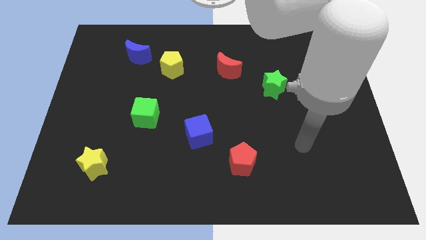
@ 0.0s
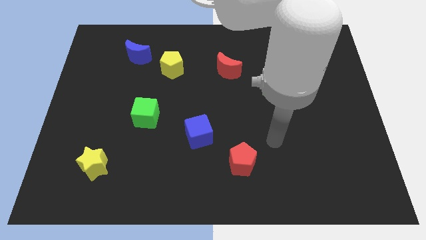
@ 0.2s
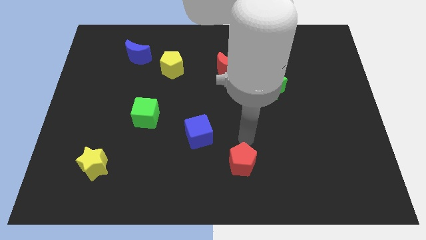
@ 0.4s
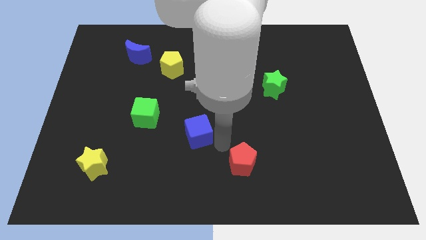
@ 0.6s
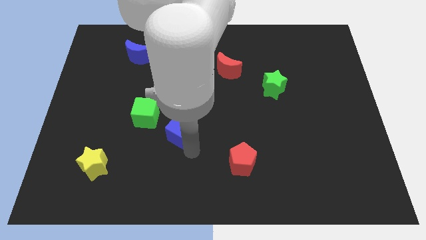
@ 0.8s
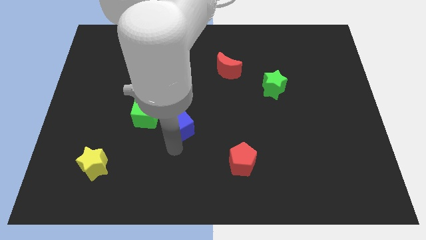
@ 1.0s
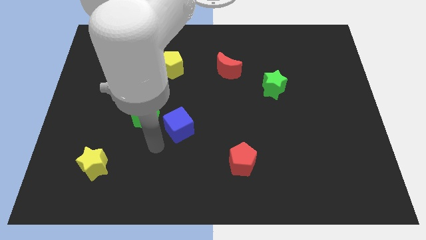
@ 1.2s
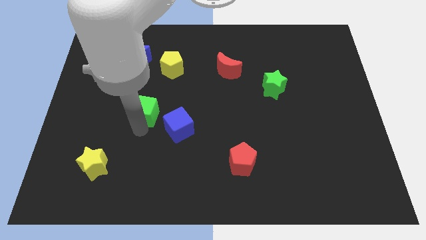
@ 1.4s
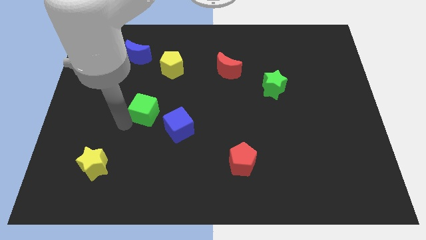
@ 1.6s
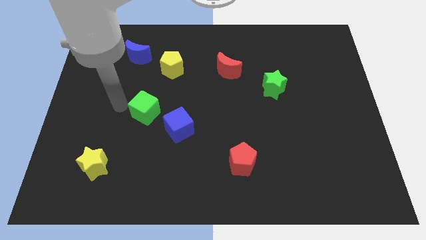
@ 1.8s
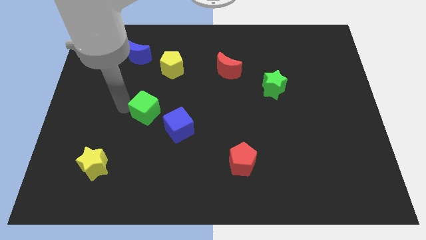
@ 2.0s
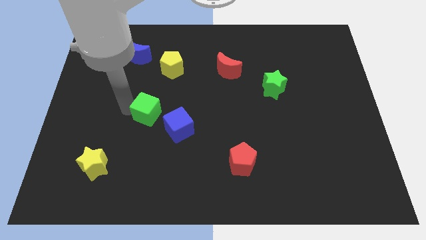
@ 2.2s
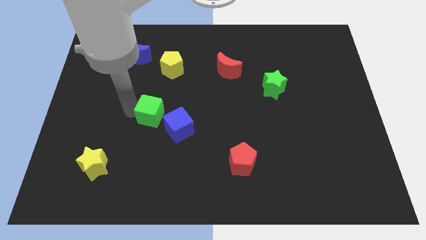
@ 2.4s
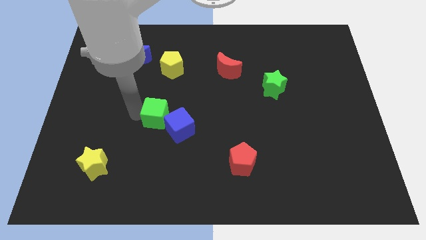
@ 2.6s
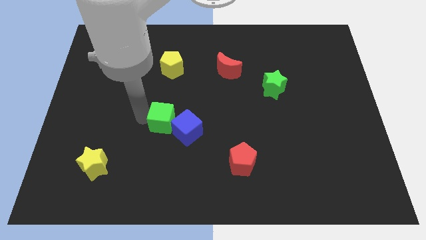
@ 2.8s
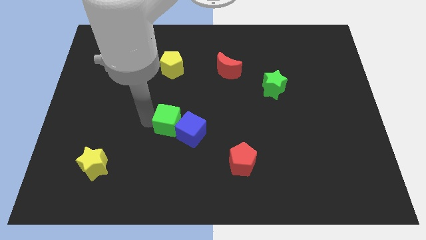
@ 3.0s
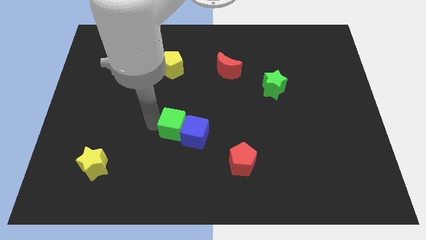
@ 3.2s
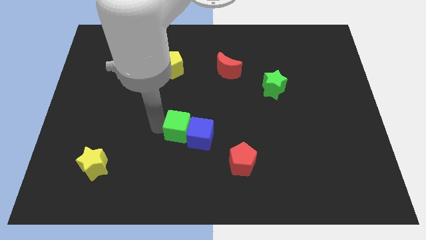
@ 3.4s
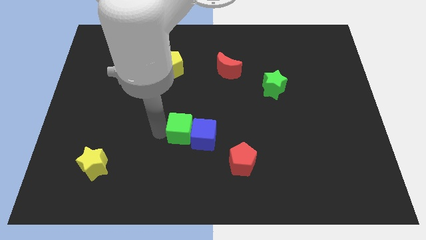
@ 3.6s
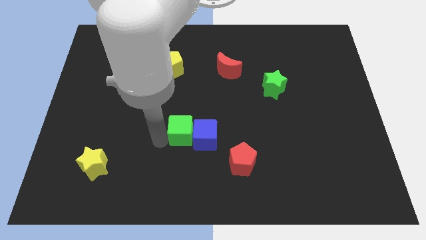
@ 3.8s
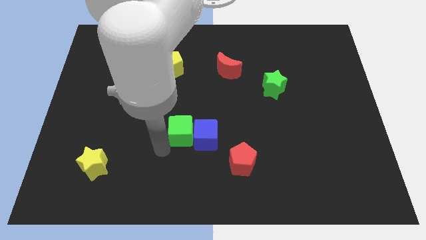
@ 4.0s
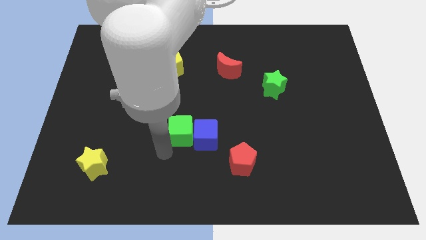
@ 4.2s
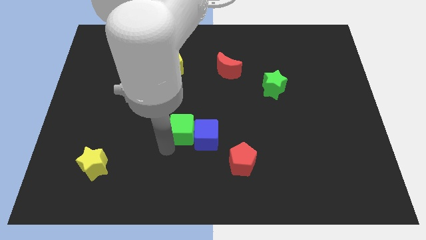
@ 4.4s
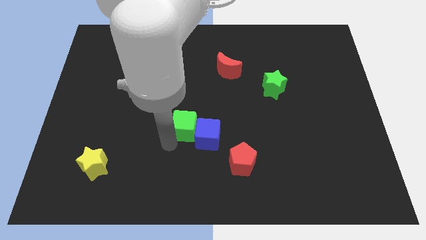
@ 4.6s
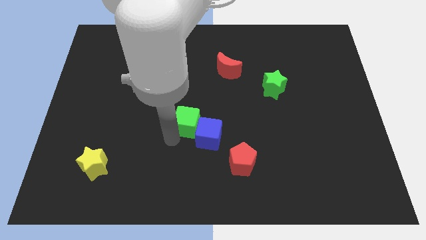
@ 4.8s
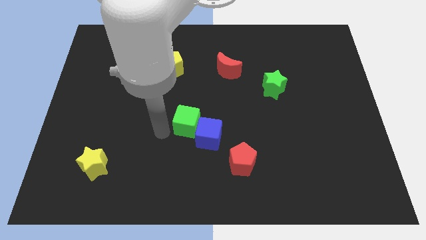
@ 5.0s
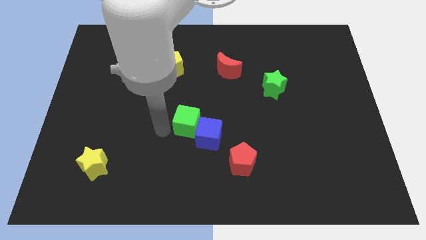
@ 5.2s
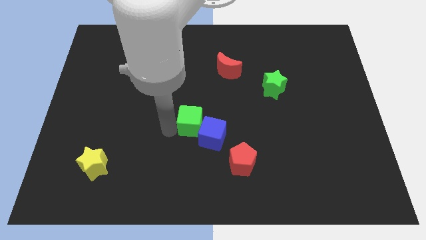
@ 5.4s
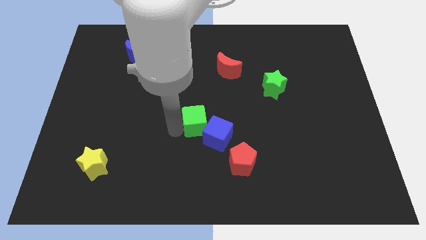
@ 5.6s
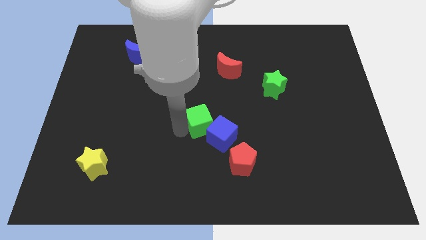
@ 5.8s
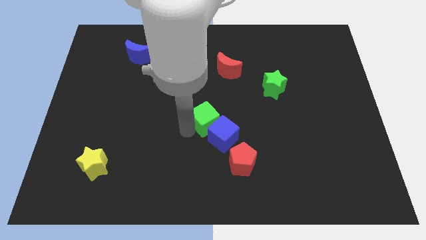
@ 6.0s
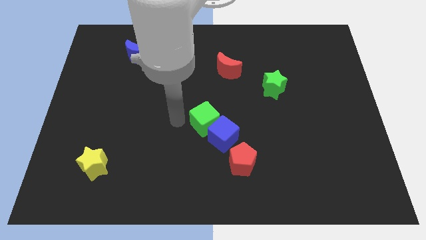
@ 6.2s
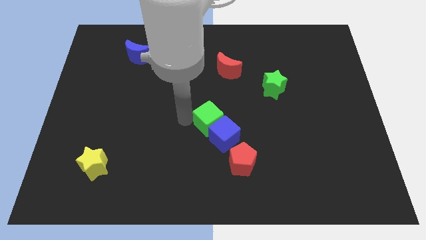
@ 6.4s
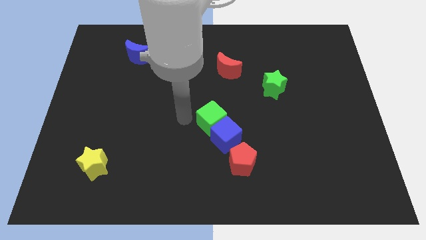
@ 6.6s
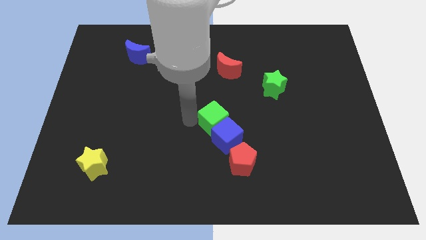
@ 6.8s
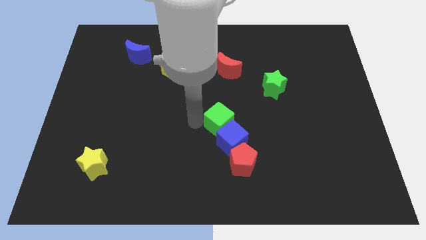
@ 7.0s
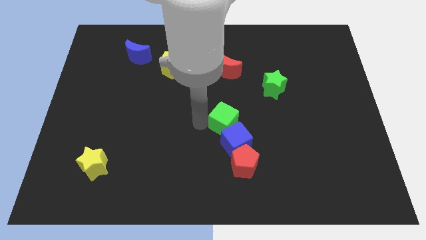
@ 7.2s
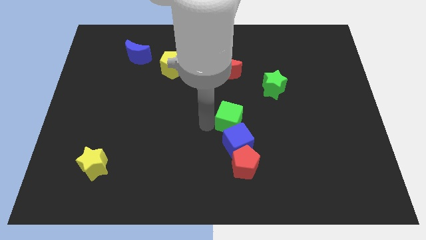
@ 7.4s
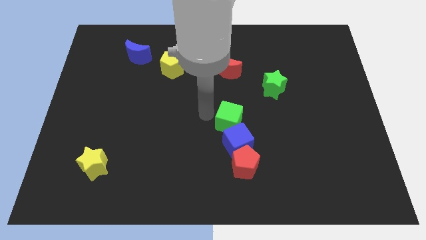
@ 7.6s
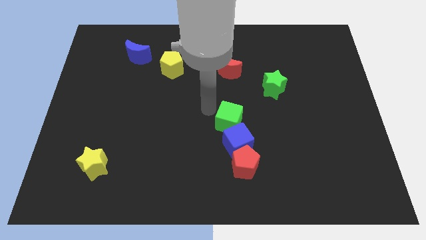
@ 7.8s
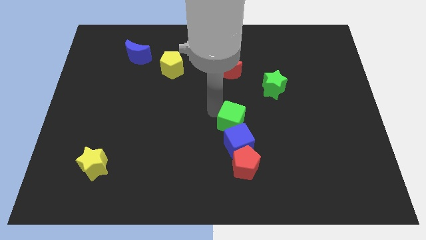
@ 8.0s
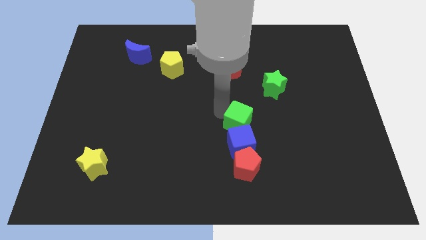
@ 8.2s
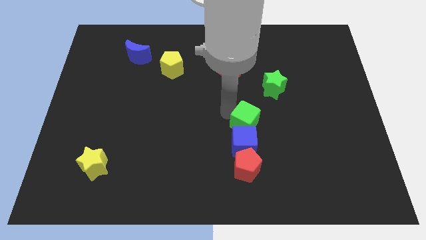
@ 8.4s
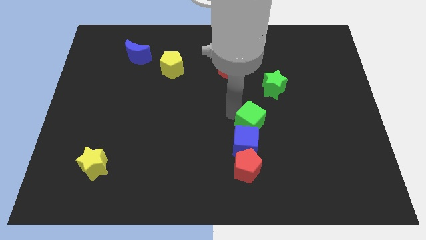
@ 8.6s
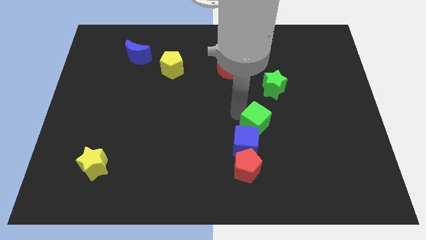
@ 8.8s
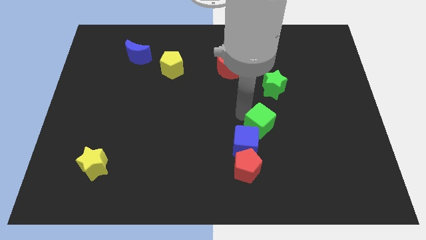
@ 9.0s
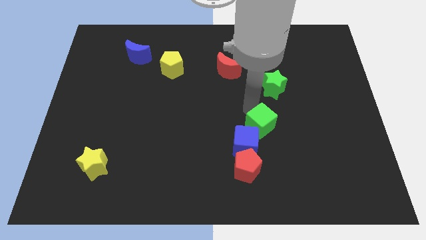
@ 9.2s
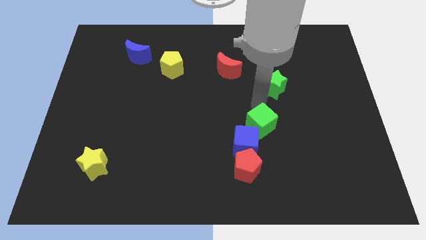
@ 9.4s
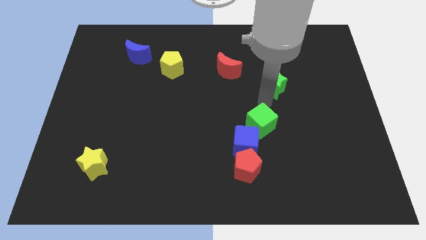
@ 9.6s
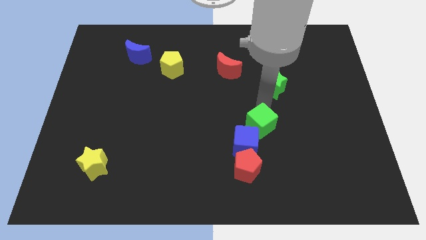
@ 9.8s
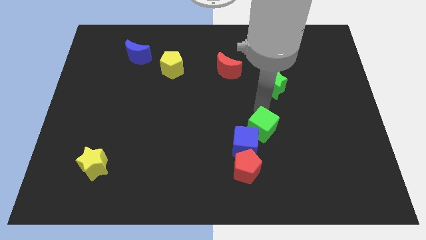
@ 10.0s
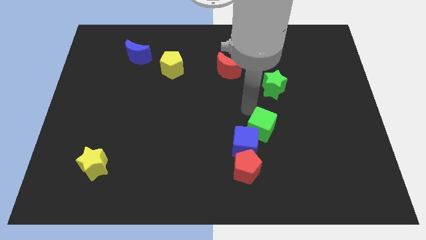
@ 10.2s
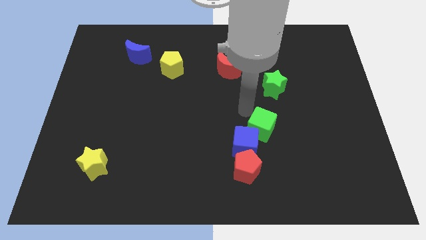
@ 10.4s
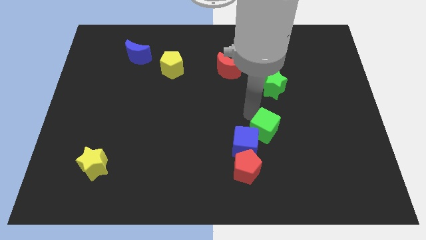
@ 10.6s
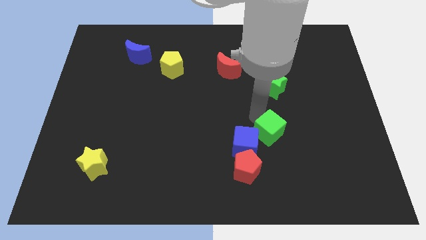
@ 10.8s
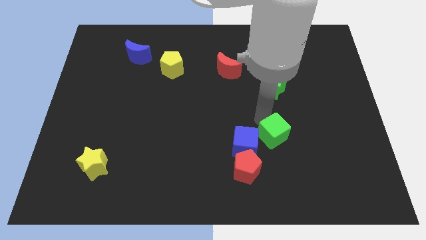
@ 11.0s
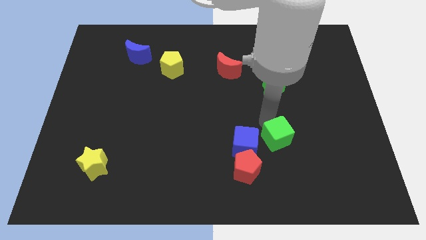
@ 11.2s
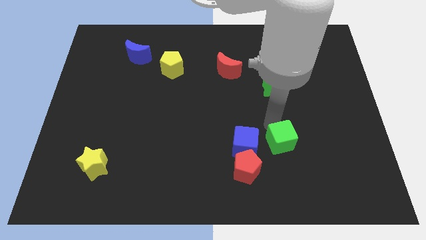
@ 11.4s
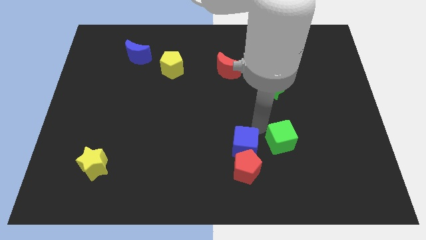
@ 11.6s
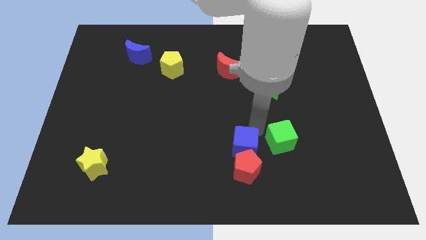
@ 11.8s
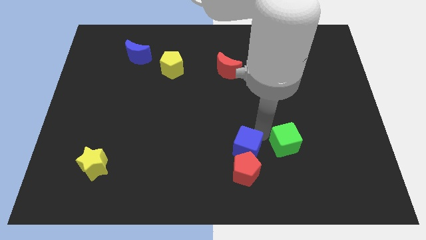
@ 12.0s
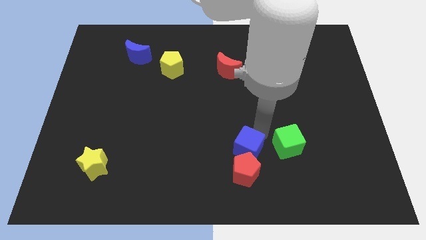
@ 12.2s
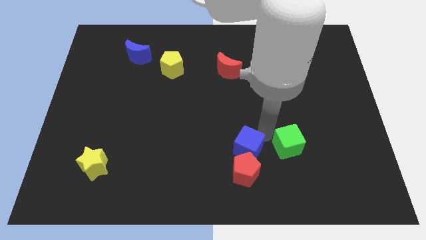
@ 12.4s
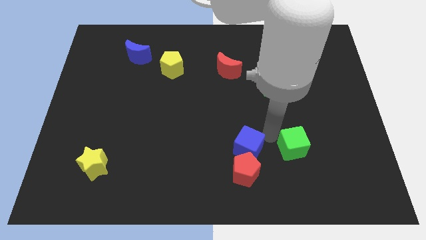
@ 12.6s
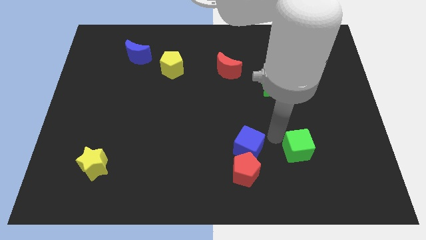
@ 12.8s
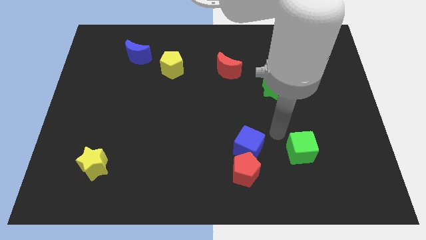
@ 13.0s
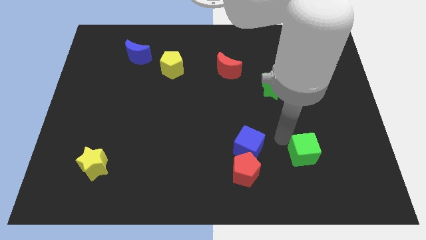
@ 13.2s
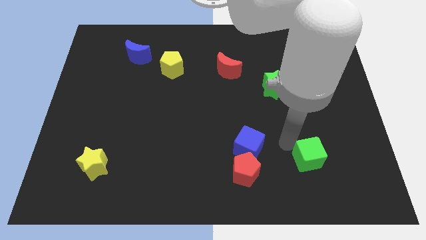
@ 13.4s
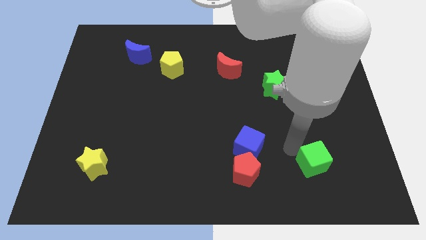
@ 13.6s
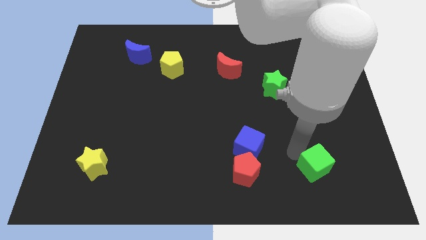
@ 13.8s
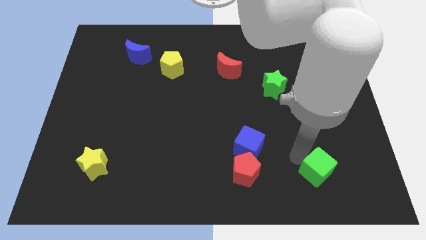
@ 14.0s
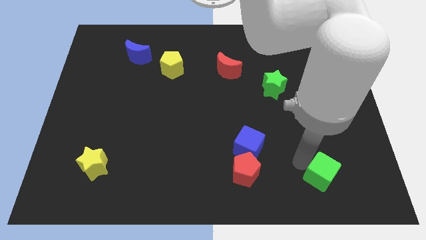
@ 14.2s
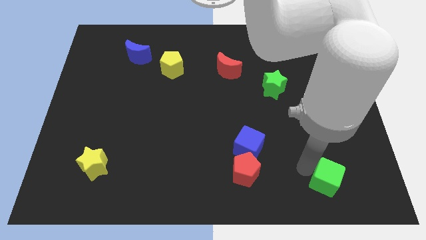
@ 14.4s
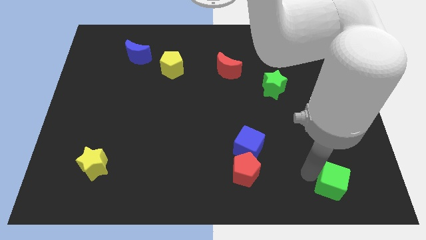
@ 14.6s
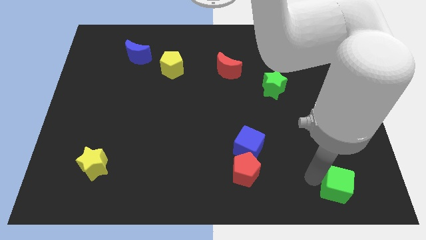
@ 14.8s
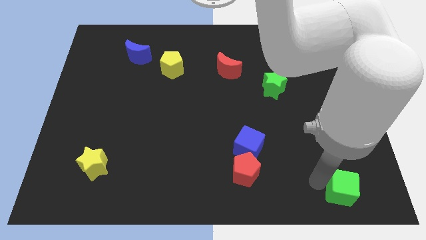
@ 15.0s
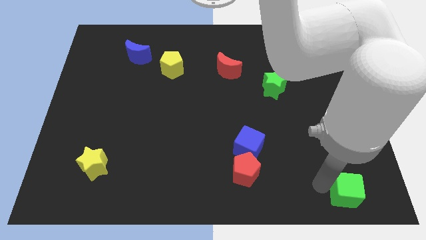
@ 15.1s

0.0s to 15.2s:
push the green cube to the bottom right corner
